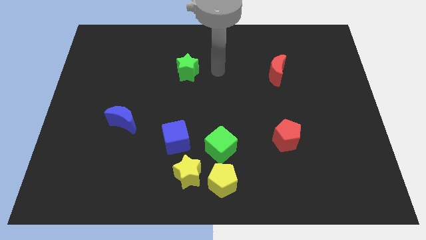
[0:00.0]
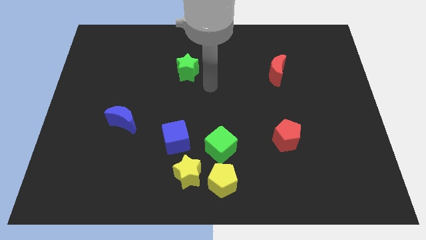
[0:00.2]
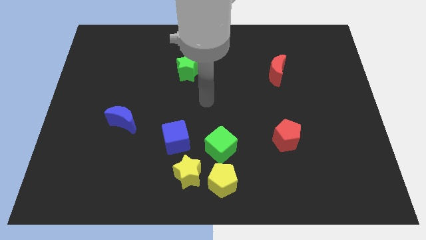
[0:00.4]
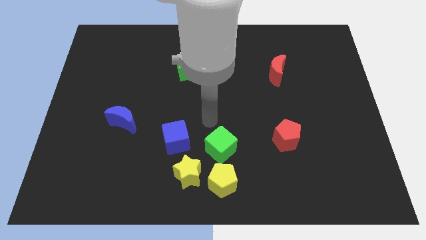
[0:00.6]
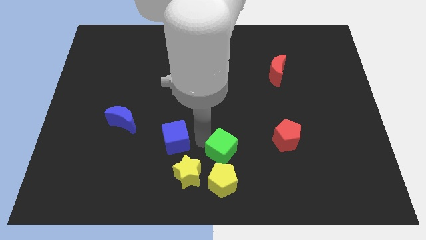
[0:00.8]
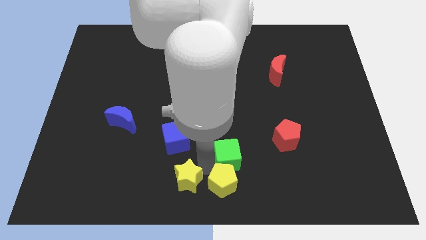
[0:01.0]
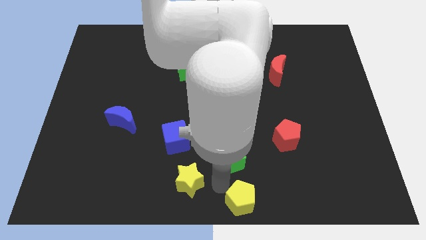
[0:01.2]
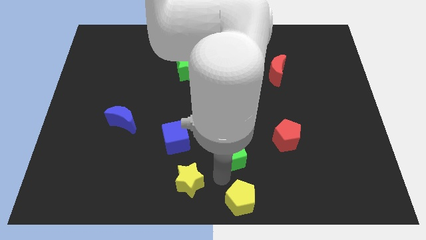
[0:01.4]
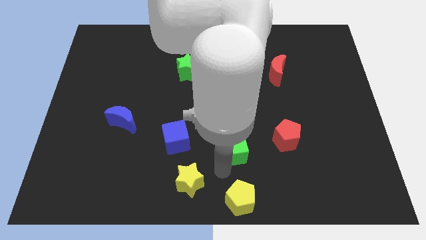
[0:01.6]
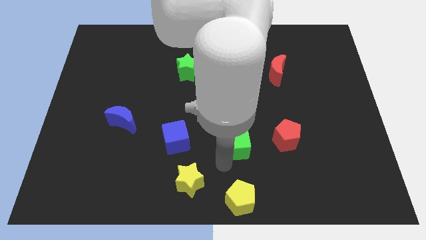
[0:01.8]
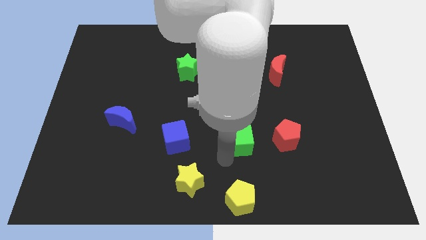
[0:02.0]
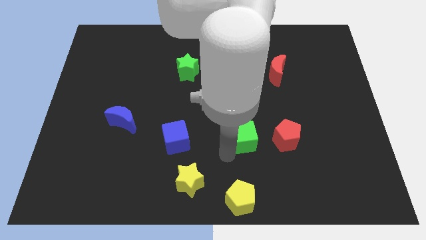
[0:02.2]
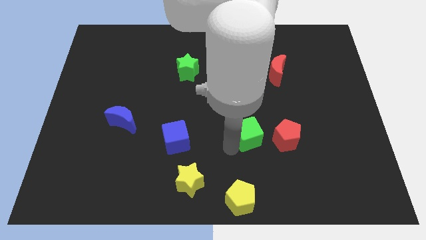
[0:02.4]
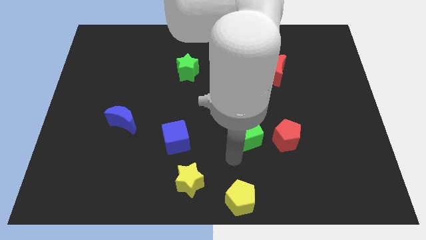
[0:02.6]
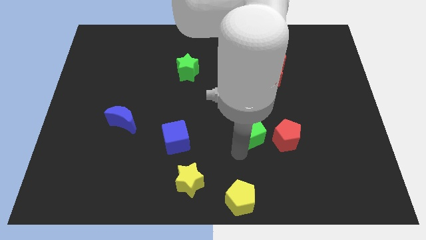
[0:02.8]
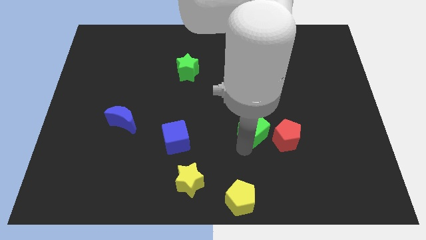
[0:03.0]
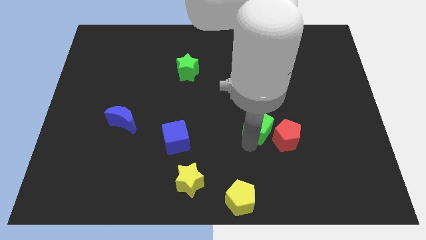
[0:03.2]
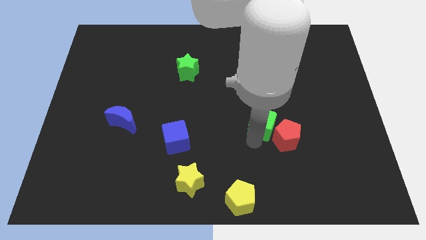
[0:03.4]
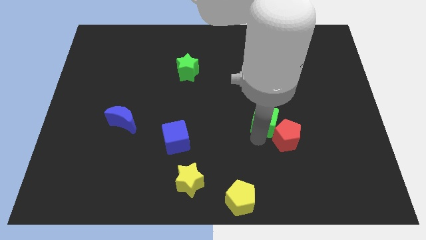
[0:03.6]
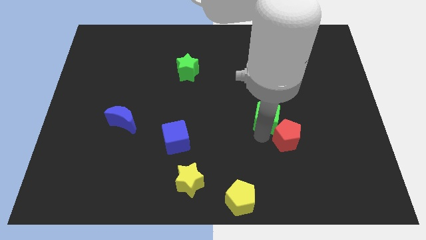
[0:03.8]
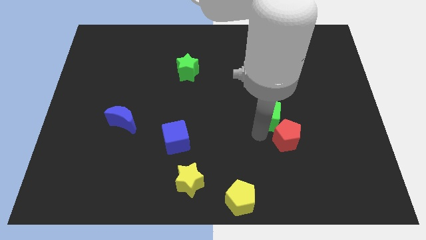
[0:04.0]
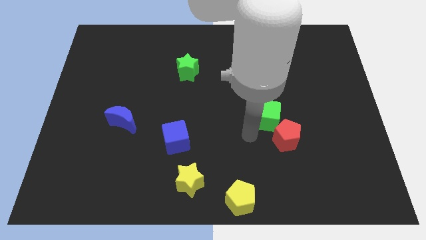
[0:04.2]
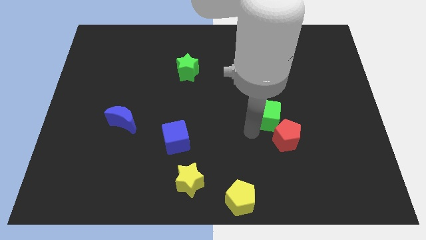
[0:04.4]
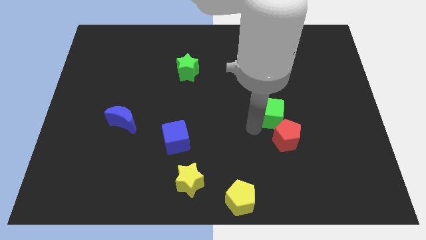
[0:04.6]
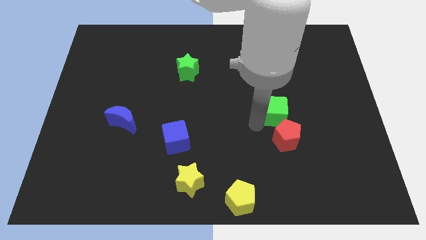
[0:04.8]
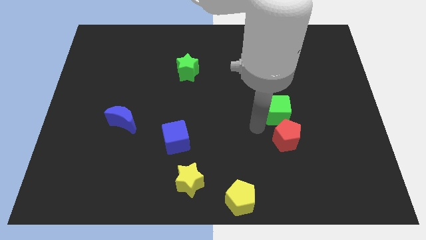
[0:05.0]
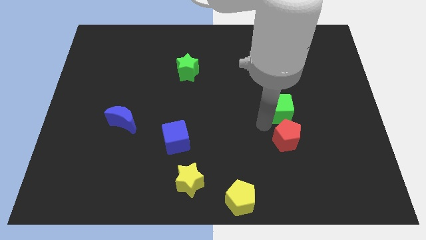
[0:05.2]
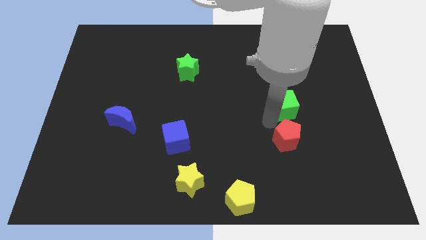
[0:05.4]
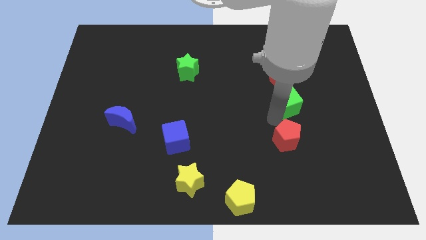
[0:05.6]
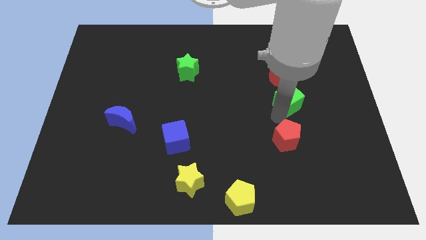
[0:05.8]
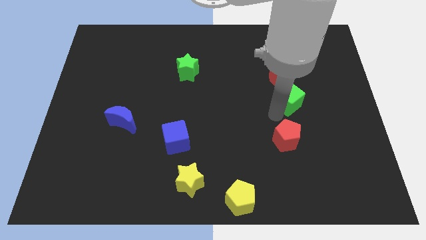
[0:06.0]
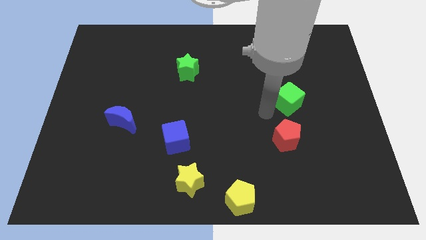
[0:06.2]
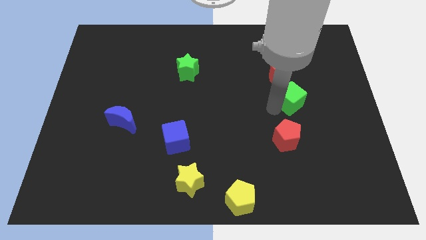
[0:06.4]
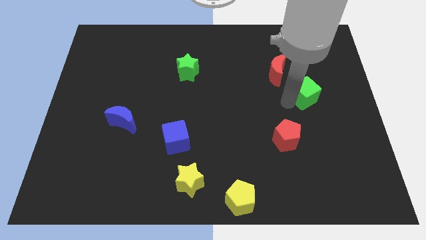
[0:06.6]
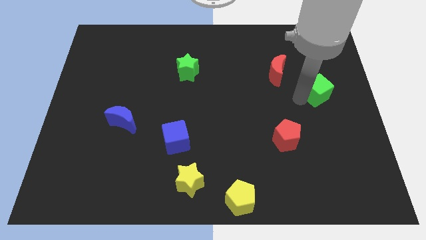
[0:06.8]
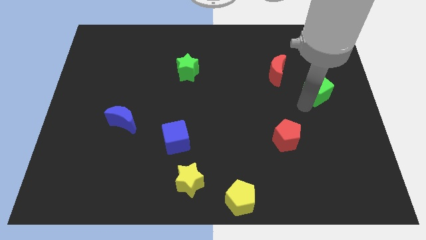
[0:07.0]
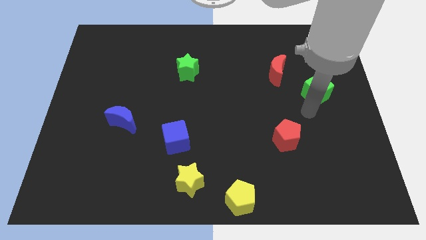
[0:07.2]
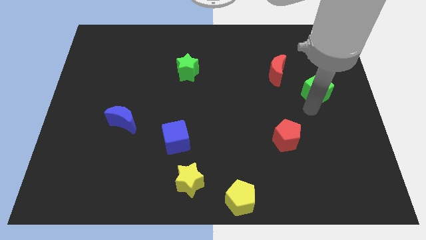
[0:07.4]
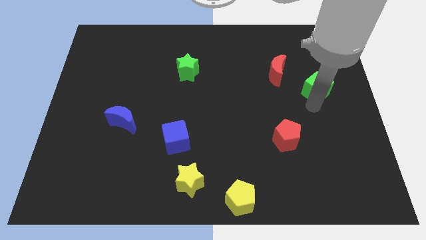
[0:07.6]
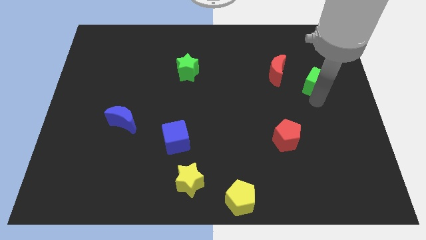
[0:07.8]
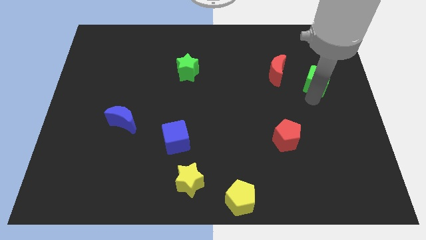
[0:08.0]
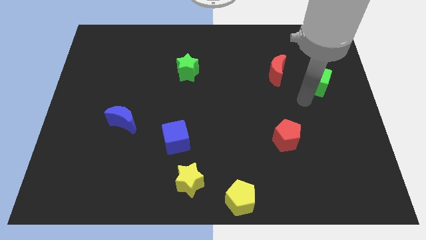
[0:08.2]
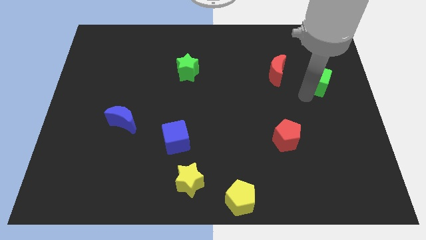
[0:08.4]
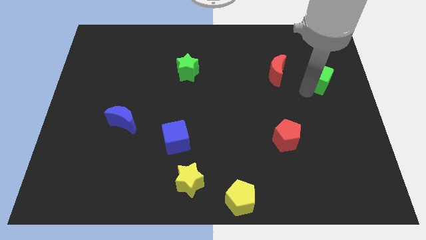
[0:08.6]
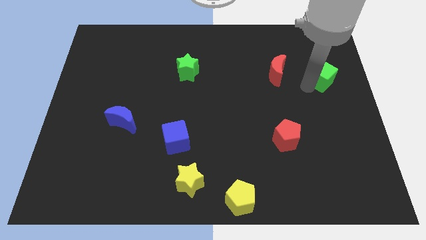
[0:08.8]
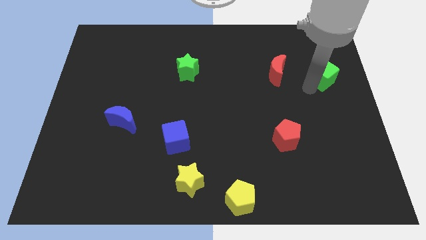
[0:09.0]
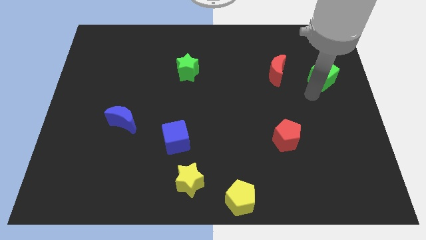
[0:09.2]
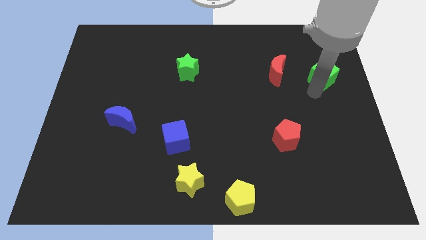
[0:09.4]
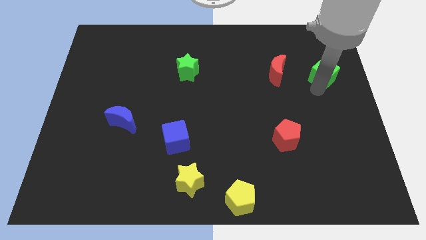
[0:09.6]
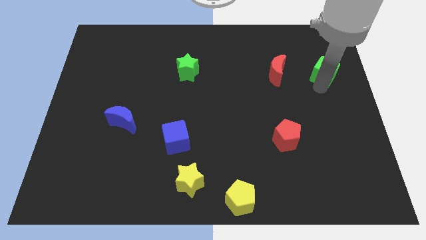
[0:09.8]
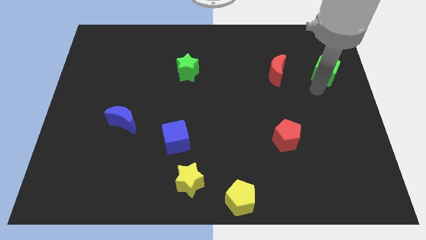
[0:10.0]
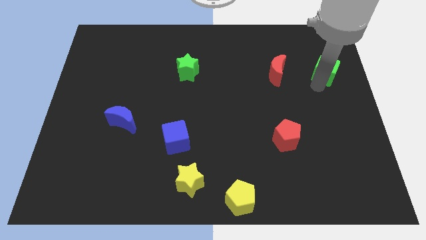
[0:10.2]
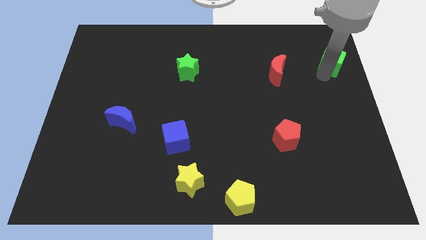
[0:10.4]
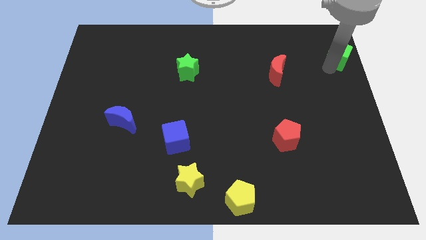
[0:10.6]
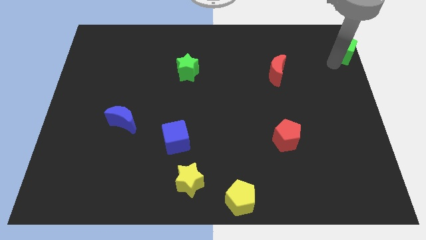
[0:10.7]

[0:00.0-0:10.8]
push the green cube to the top right
